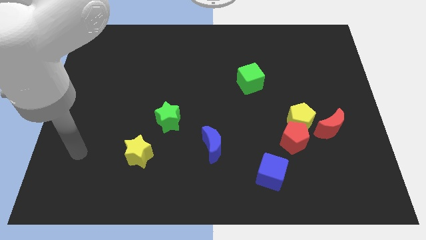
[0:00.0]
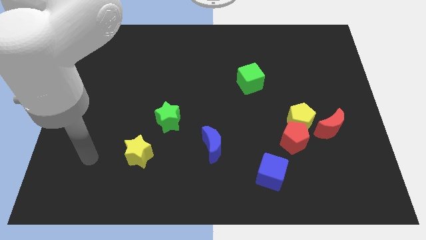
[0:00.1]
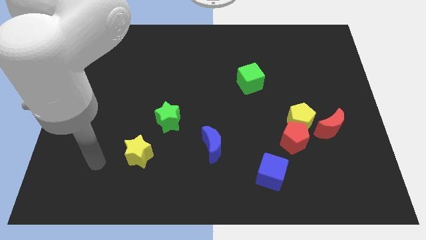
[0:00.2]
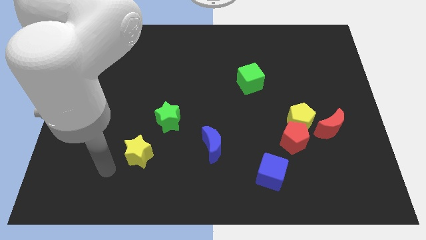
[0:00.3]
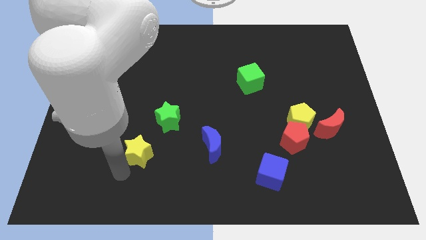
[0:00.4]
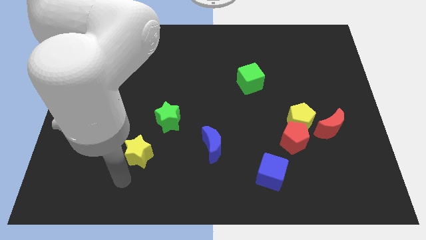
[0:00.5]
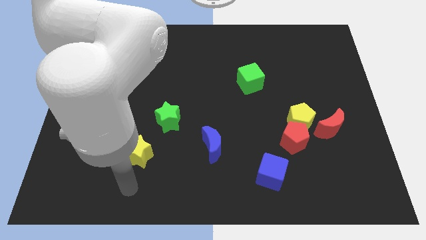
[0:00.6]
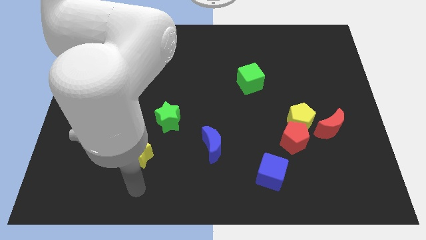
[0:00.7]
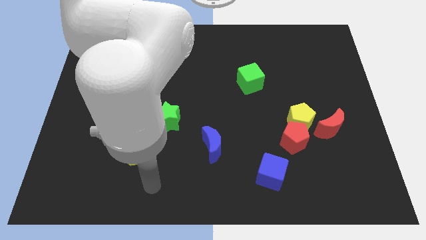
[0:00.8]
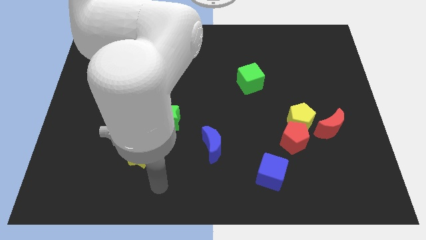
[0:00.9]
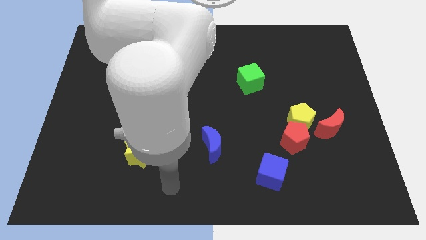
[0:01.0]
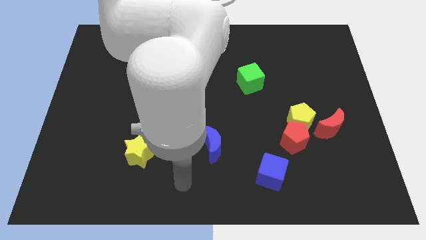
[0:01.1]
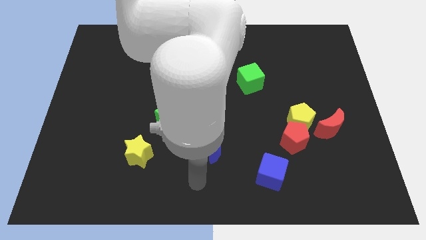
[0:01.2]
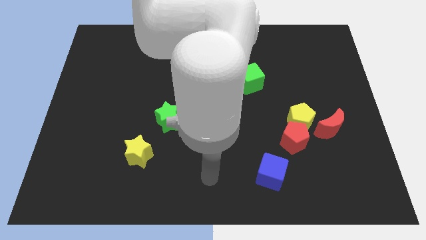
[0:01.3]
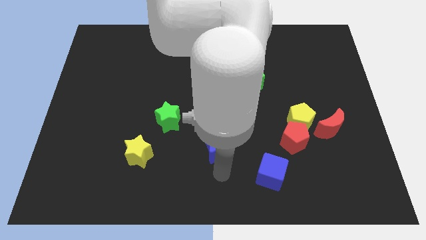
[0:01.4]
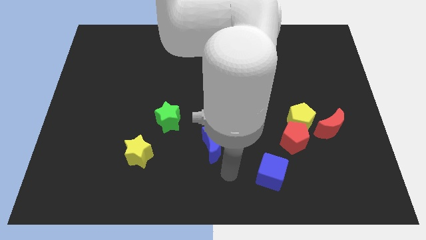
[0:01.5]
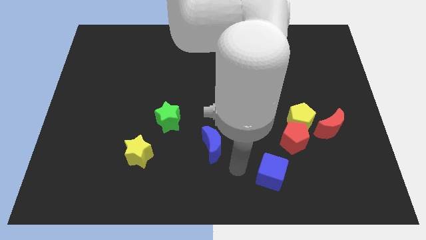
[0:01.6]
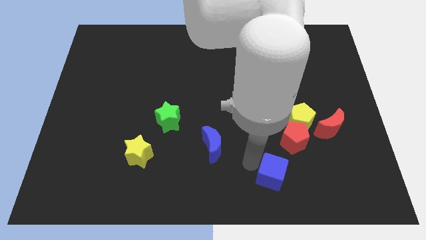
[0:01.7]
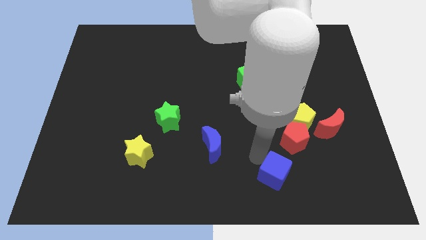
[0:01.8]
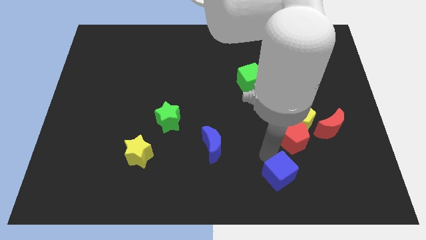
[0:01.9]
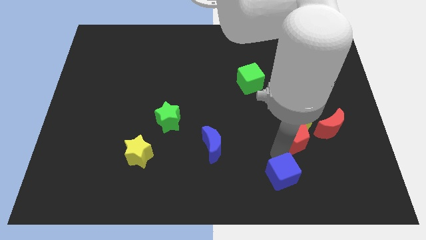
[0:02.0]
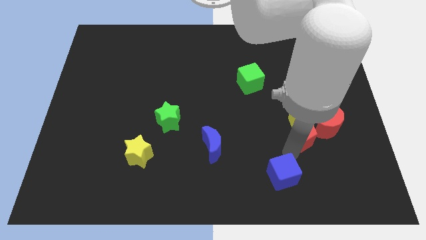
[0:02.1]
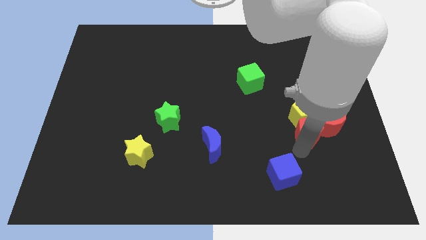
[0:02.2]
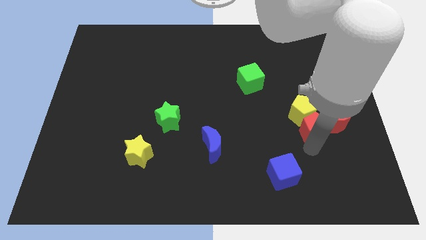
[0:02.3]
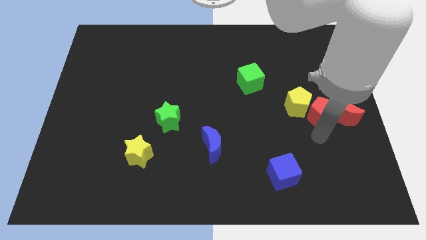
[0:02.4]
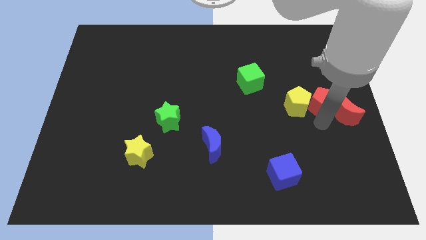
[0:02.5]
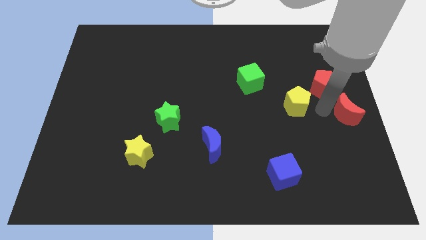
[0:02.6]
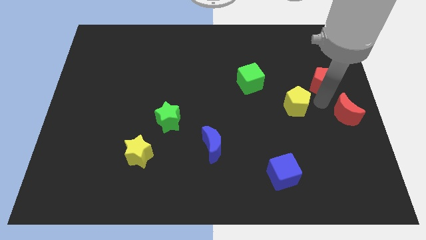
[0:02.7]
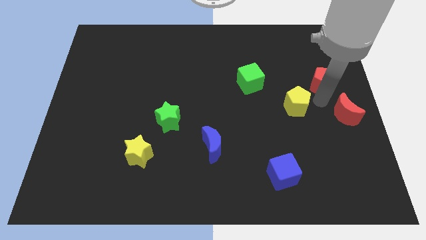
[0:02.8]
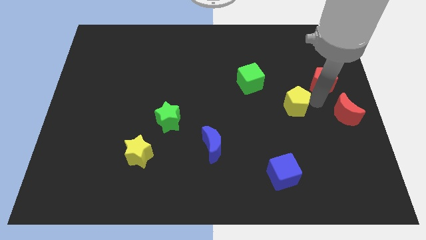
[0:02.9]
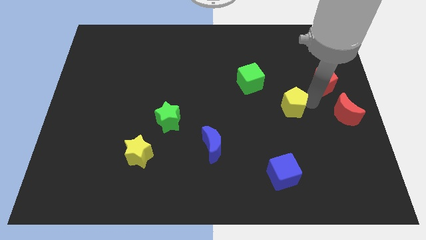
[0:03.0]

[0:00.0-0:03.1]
pull the yellow pentagon apart from the red pentagon and red moon

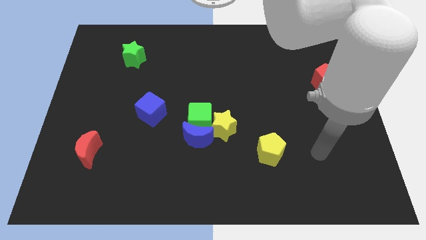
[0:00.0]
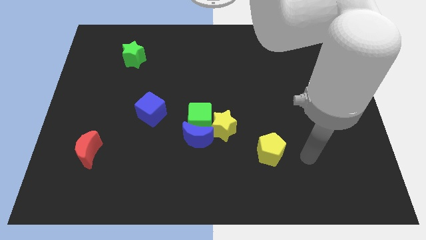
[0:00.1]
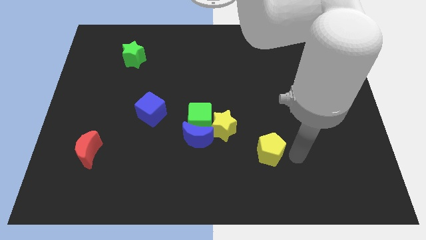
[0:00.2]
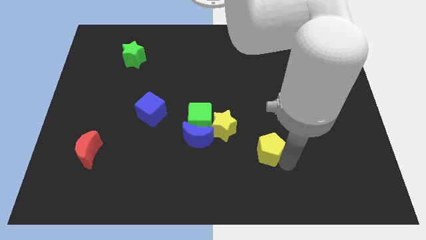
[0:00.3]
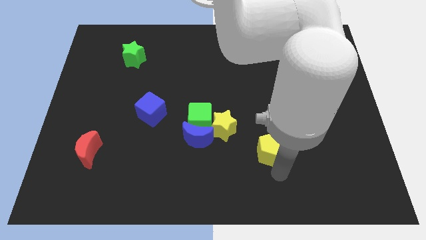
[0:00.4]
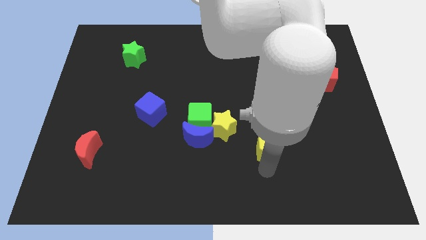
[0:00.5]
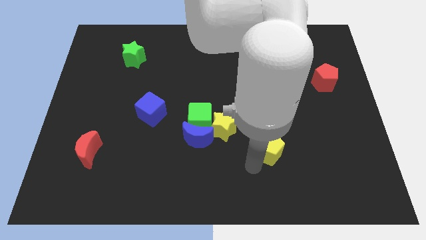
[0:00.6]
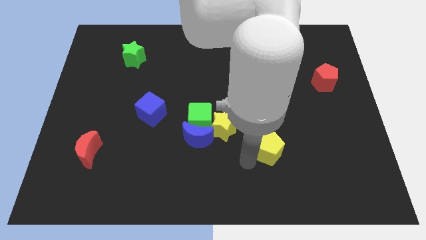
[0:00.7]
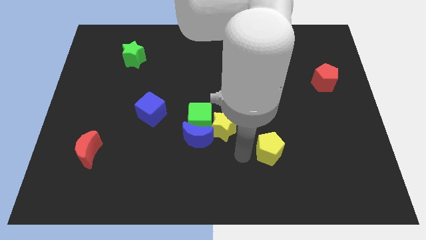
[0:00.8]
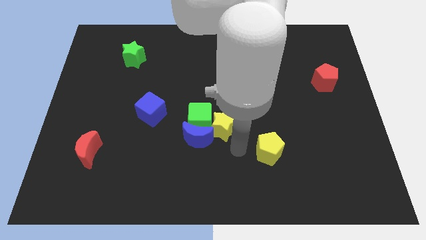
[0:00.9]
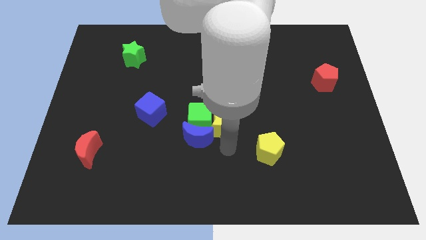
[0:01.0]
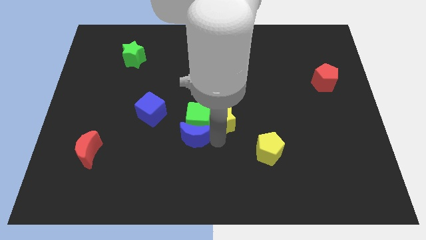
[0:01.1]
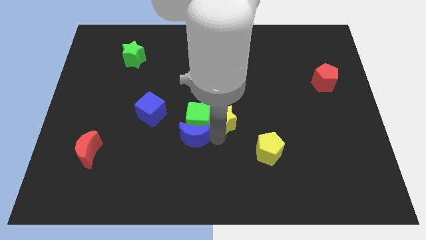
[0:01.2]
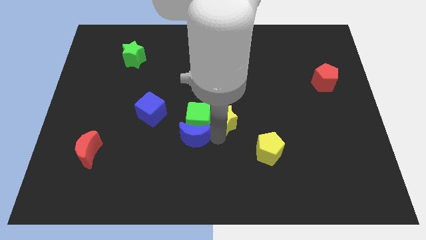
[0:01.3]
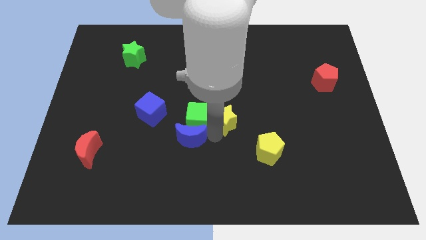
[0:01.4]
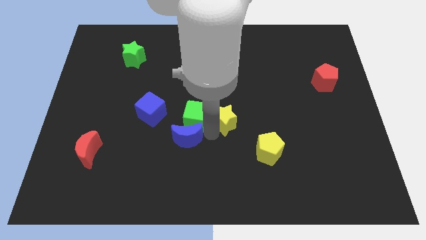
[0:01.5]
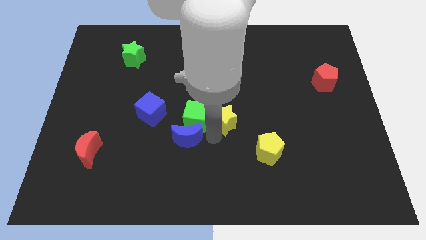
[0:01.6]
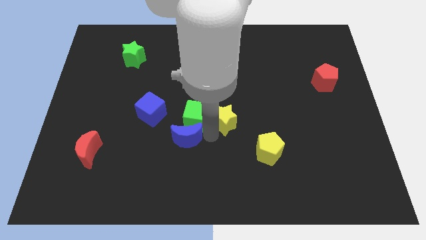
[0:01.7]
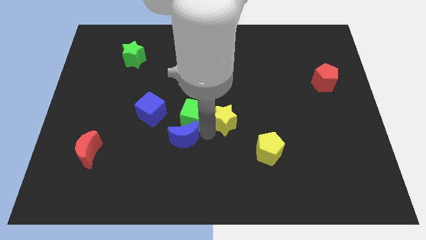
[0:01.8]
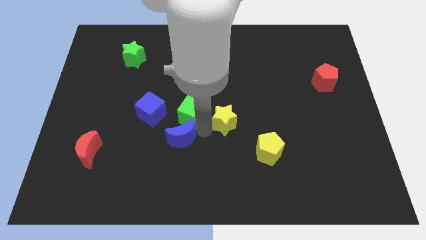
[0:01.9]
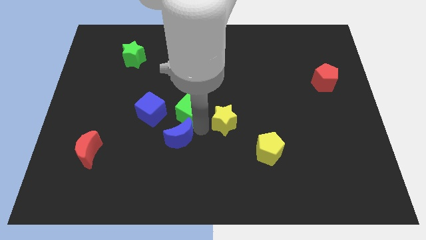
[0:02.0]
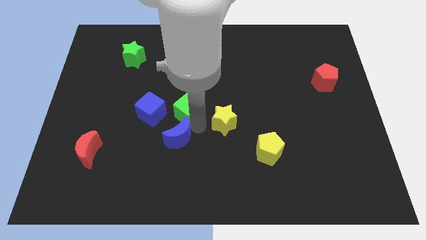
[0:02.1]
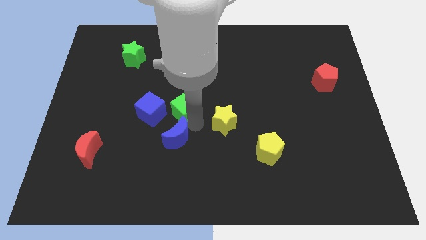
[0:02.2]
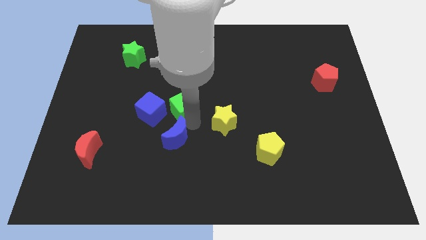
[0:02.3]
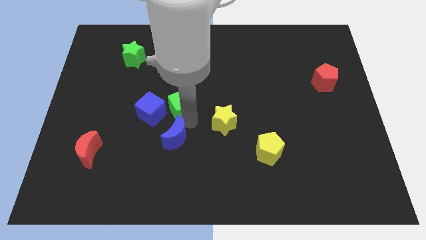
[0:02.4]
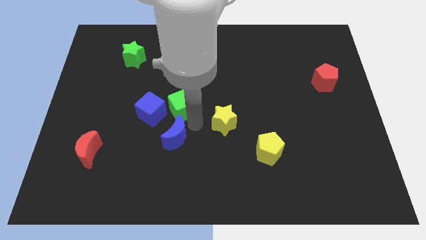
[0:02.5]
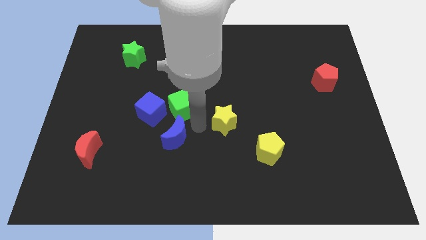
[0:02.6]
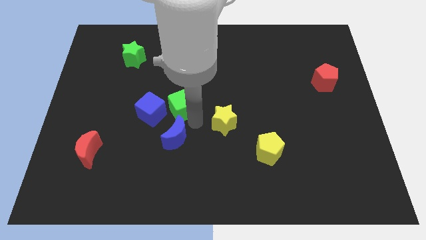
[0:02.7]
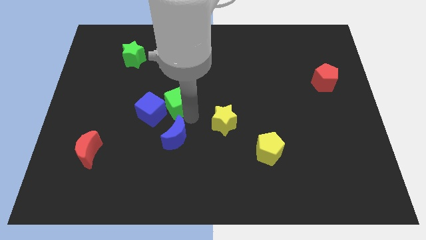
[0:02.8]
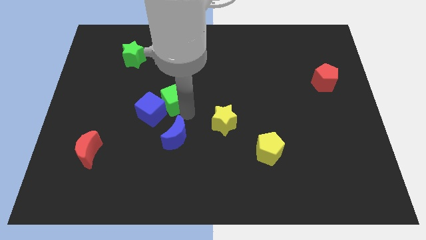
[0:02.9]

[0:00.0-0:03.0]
pull the green cube apart from the blue moon and yellow star

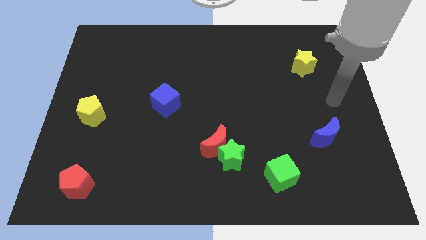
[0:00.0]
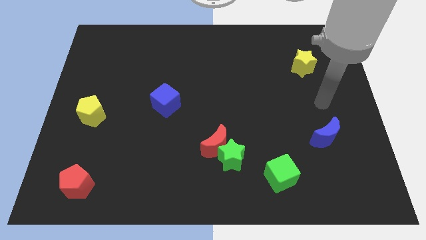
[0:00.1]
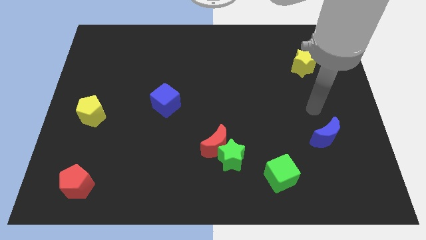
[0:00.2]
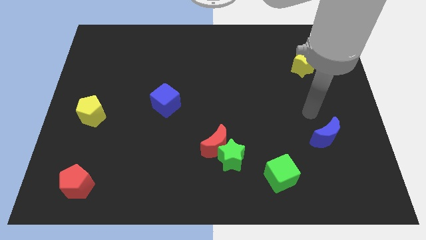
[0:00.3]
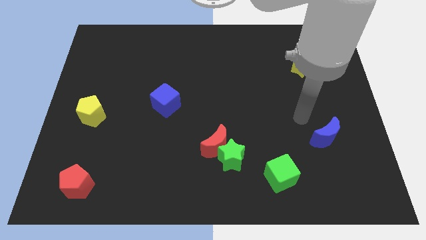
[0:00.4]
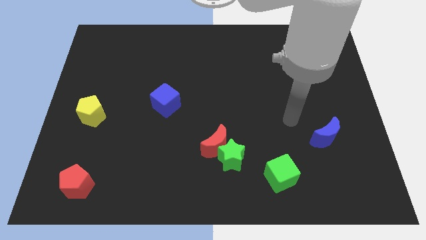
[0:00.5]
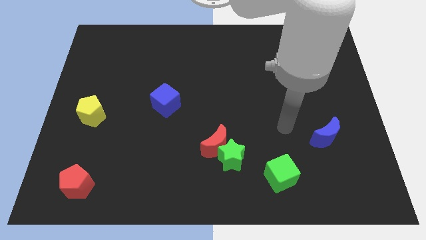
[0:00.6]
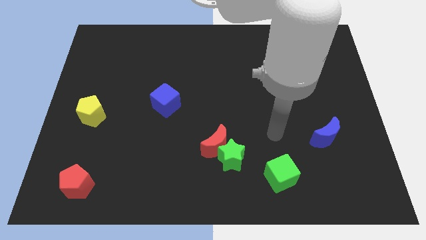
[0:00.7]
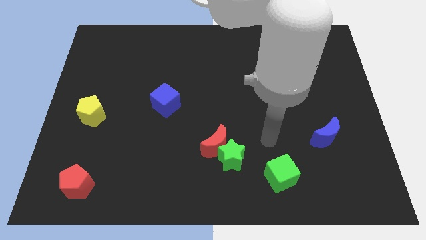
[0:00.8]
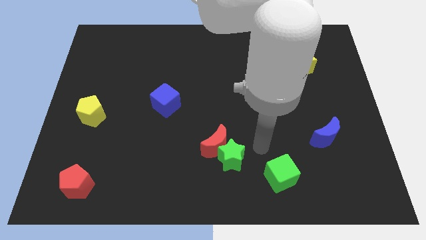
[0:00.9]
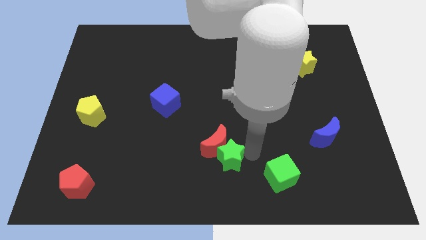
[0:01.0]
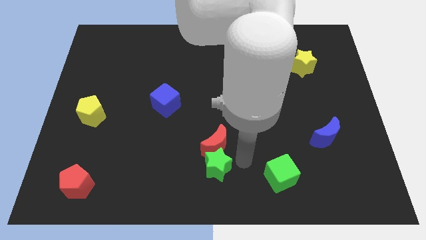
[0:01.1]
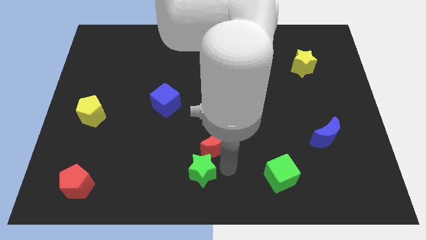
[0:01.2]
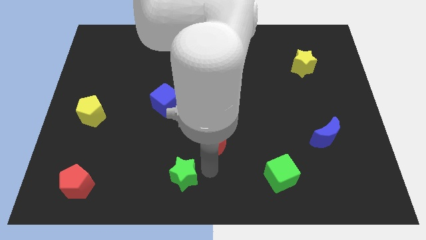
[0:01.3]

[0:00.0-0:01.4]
move the red moon away from the green star

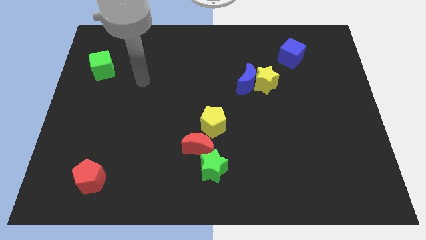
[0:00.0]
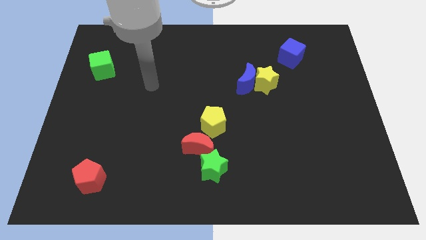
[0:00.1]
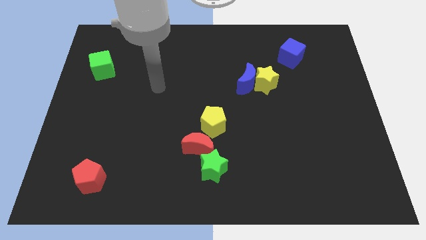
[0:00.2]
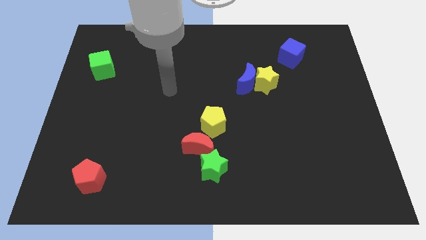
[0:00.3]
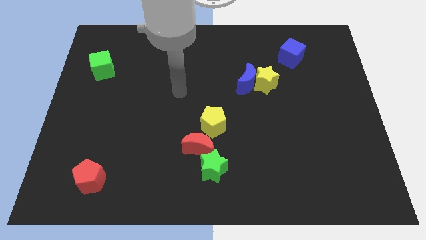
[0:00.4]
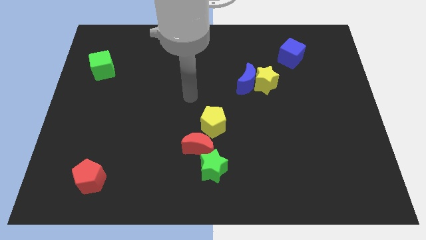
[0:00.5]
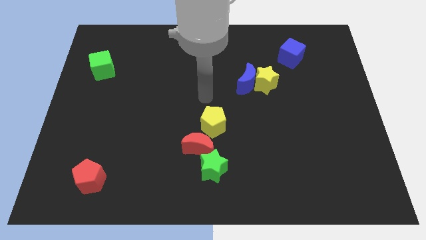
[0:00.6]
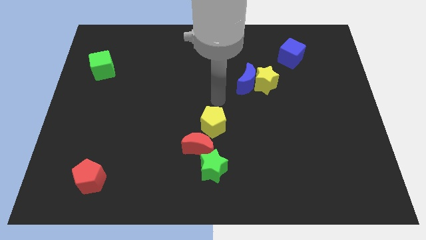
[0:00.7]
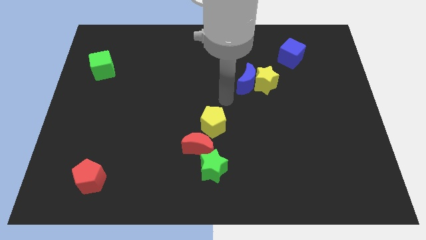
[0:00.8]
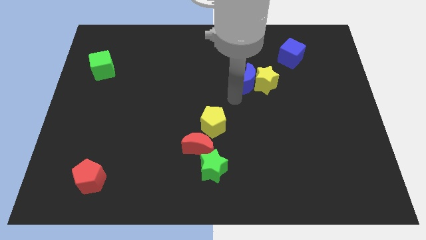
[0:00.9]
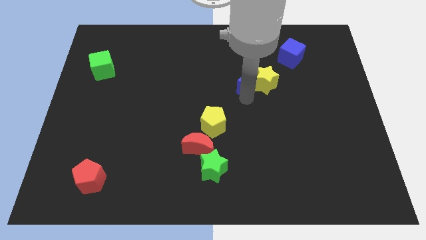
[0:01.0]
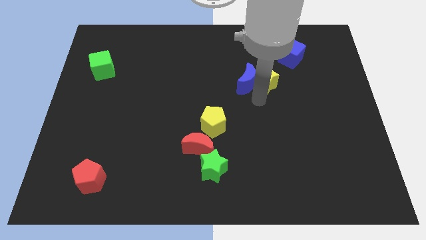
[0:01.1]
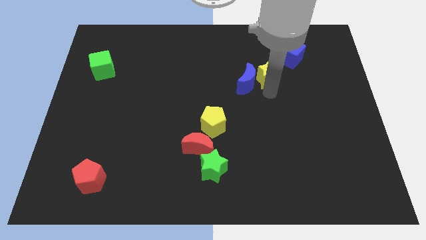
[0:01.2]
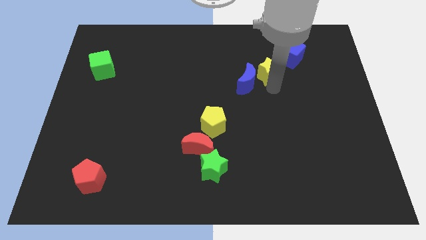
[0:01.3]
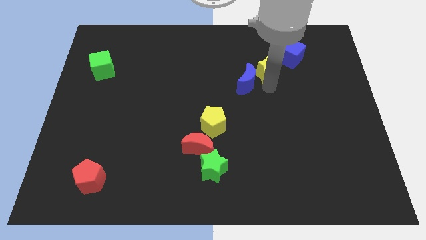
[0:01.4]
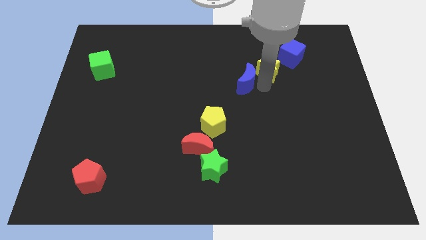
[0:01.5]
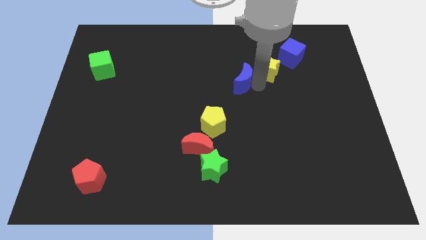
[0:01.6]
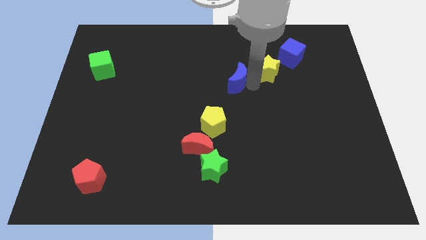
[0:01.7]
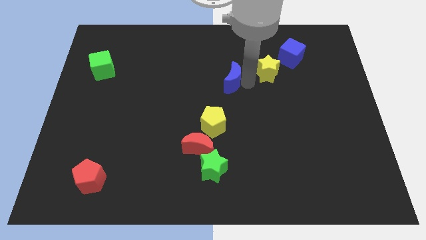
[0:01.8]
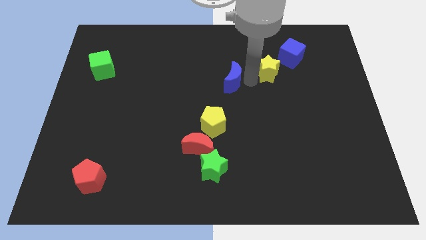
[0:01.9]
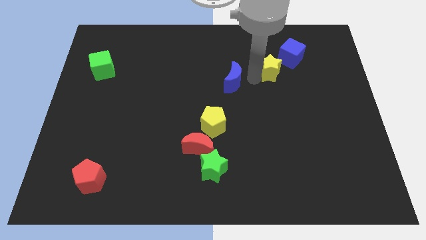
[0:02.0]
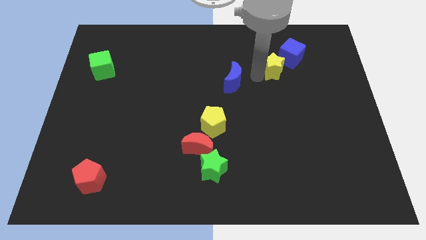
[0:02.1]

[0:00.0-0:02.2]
separate the blue moon from the yellow star
